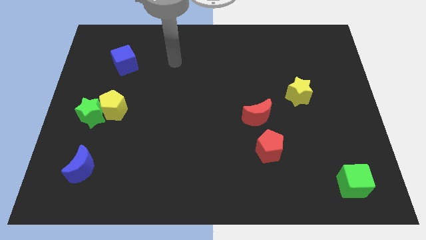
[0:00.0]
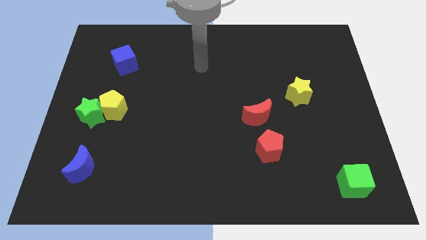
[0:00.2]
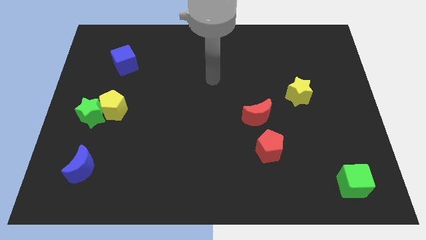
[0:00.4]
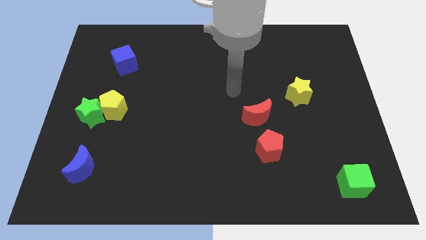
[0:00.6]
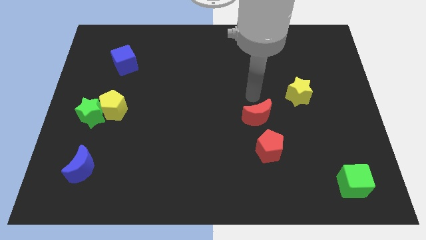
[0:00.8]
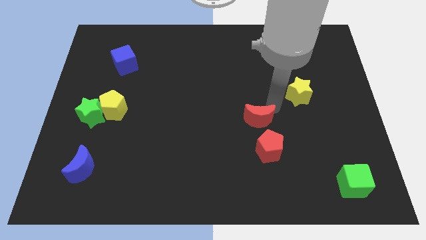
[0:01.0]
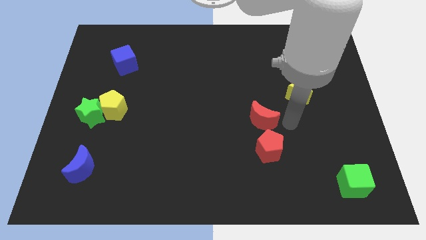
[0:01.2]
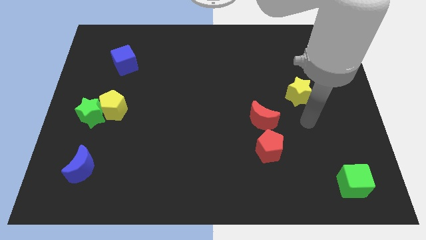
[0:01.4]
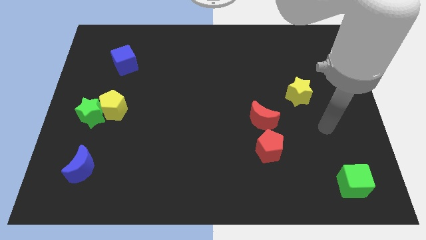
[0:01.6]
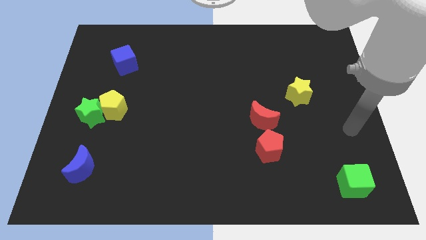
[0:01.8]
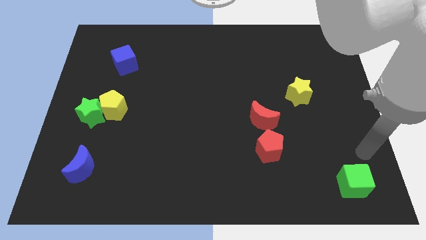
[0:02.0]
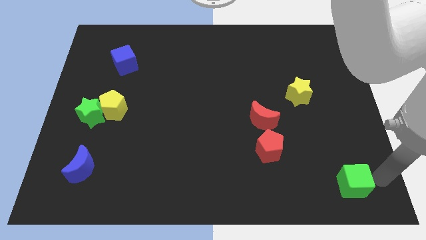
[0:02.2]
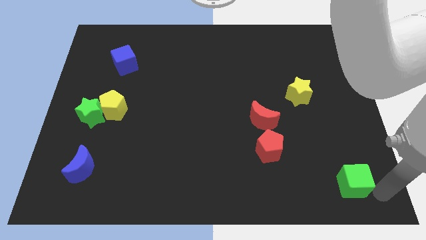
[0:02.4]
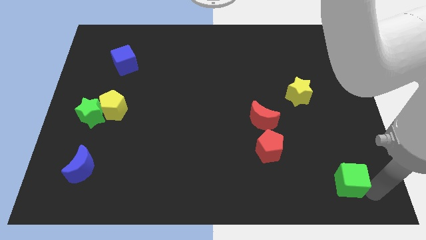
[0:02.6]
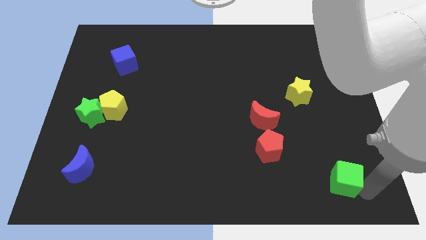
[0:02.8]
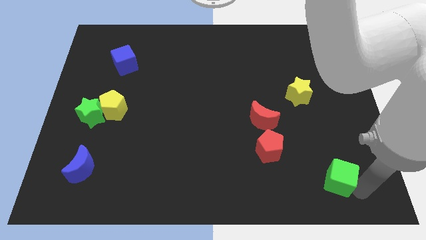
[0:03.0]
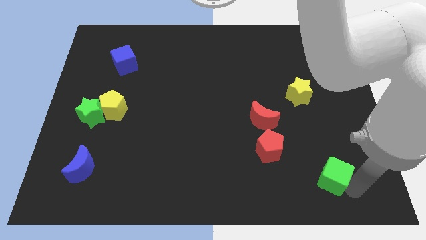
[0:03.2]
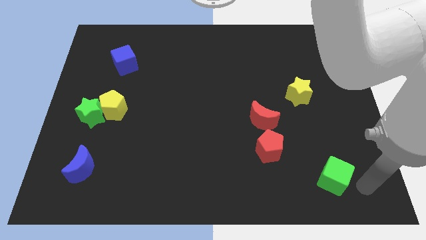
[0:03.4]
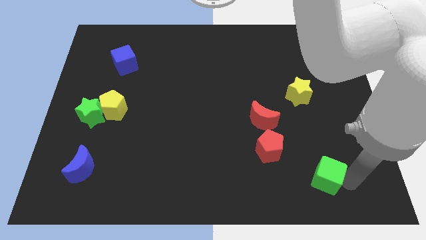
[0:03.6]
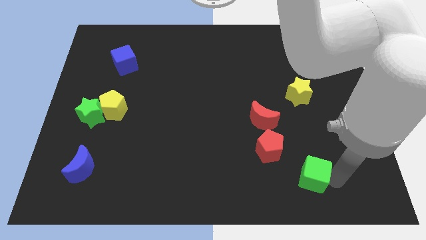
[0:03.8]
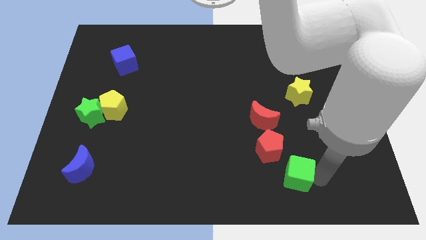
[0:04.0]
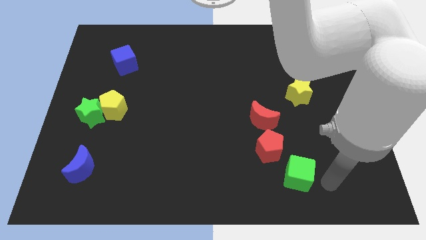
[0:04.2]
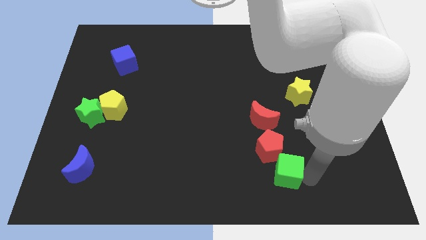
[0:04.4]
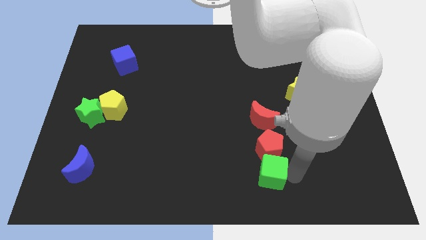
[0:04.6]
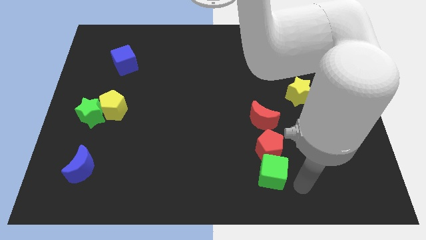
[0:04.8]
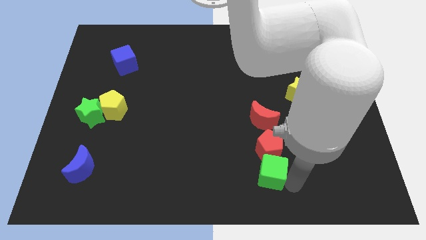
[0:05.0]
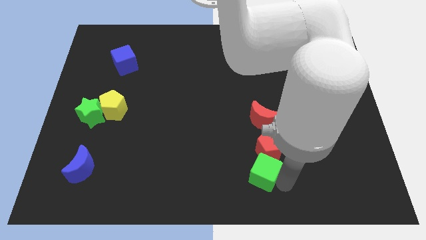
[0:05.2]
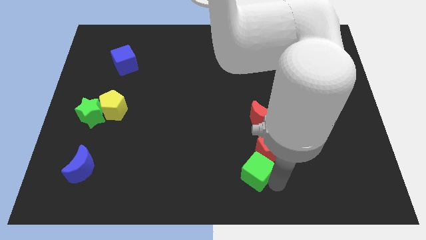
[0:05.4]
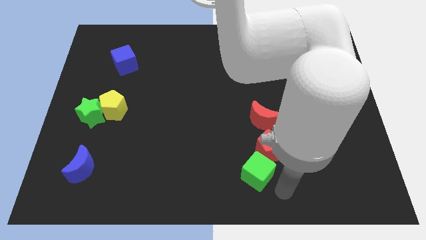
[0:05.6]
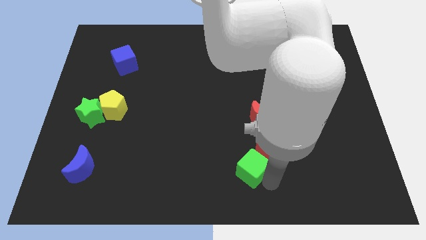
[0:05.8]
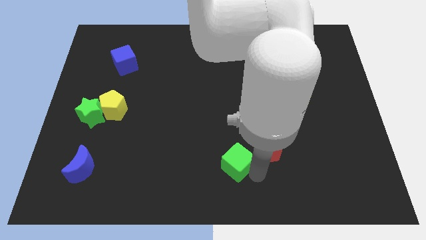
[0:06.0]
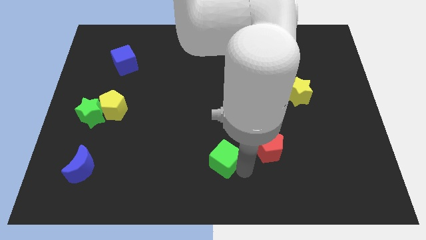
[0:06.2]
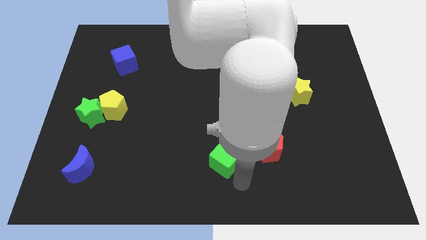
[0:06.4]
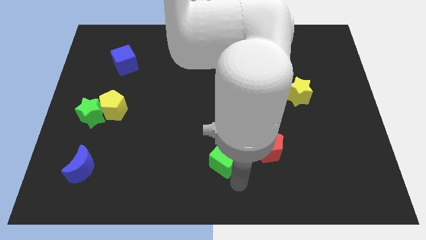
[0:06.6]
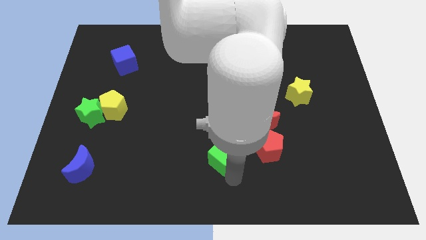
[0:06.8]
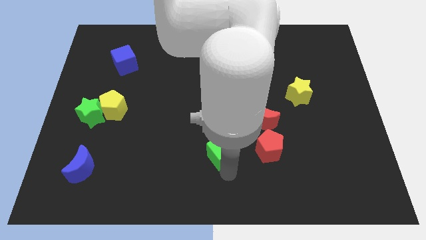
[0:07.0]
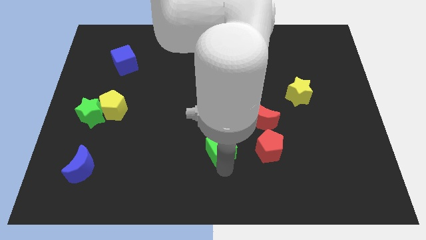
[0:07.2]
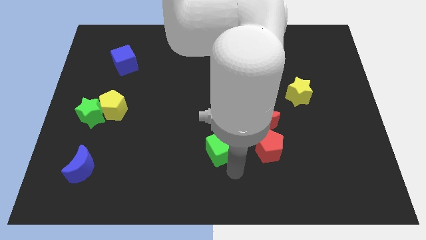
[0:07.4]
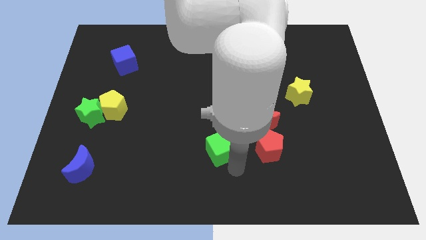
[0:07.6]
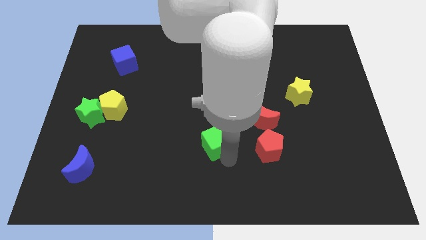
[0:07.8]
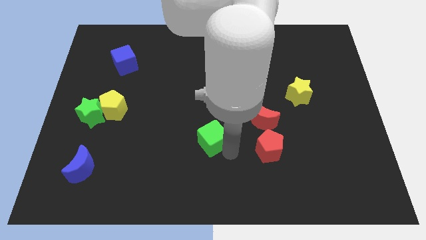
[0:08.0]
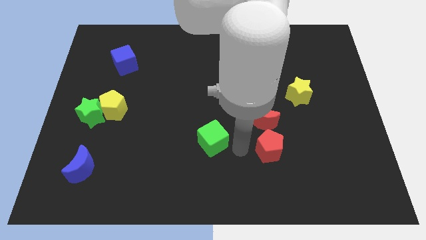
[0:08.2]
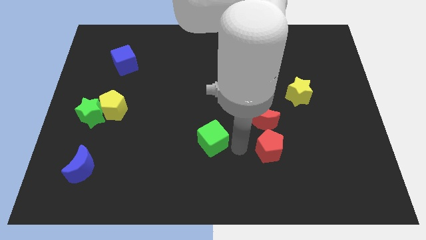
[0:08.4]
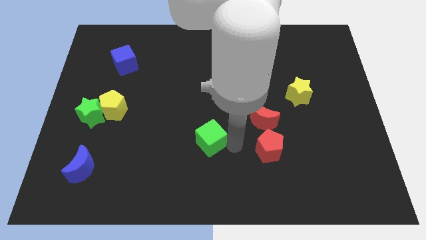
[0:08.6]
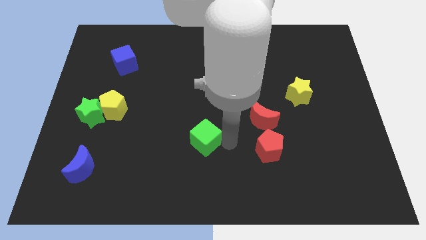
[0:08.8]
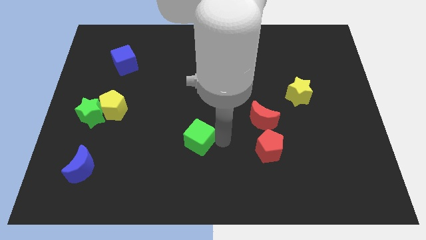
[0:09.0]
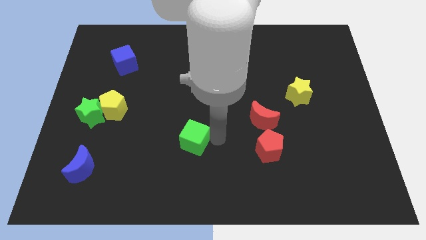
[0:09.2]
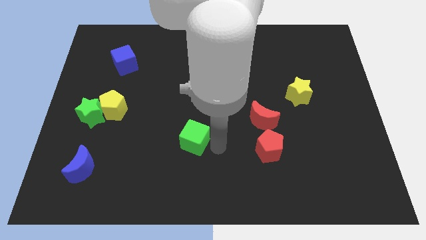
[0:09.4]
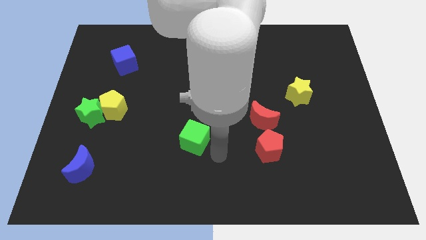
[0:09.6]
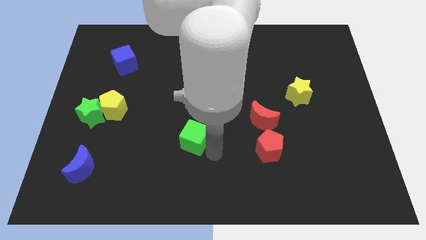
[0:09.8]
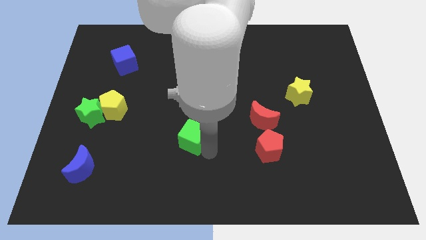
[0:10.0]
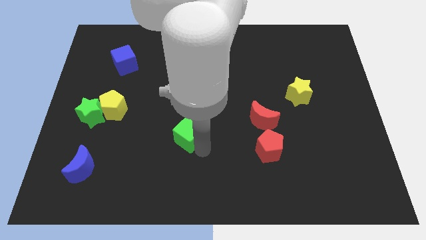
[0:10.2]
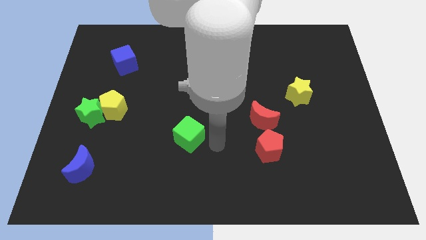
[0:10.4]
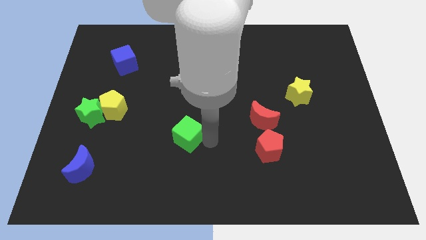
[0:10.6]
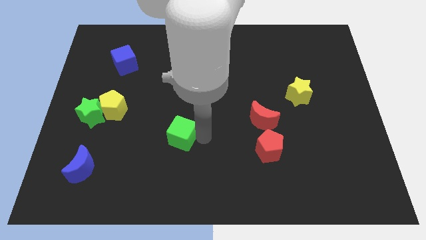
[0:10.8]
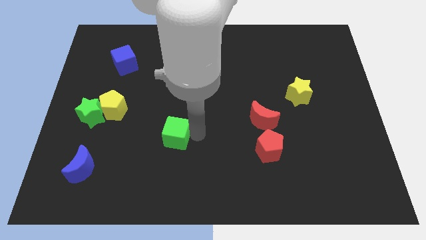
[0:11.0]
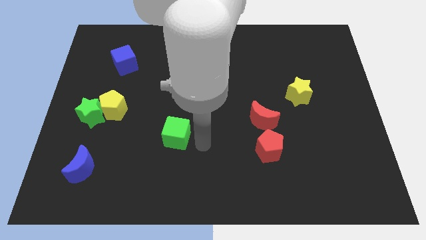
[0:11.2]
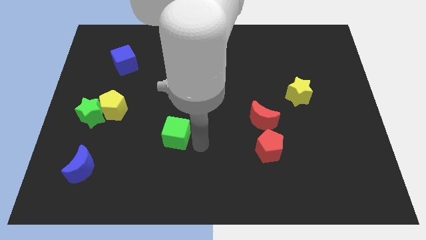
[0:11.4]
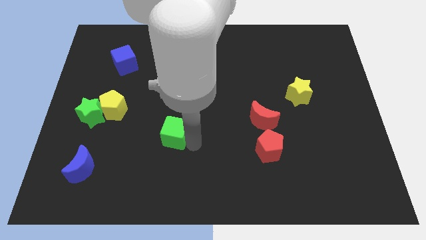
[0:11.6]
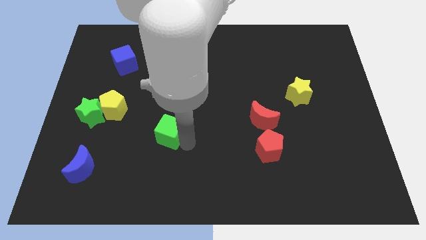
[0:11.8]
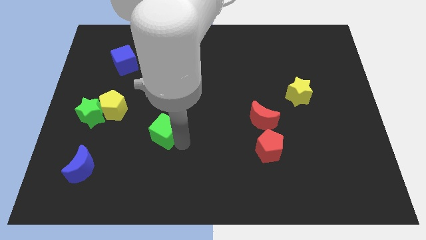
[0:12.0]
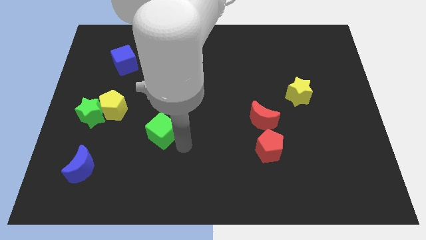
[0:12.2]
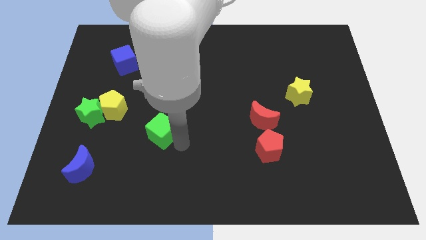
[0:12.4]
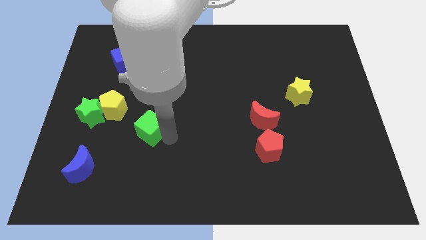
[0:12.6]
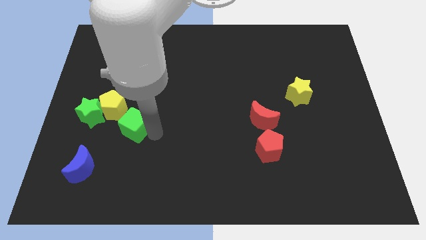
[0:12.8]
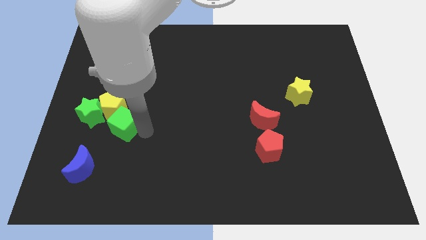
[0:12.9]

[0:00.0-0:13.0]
move the green cube to the yellow pentagon
